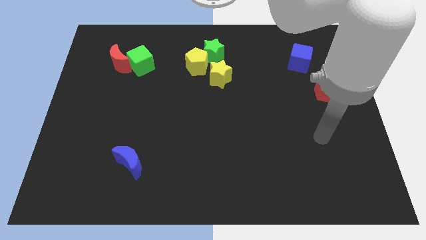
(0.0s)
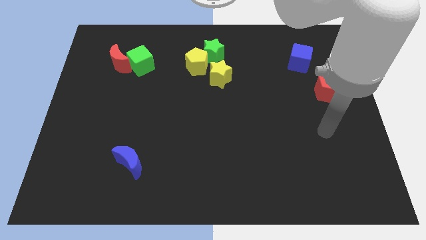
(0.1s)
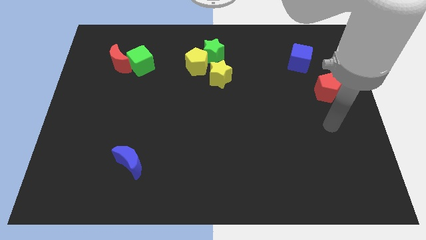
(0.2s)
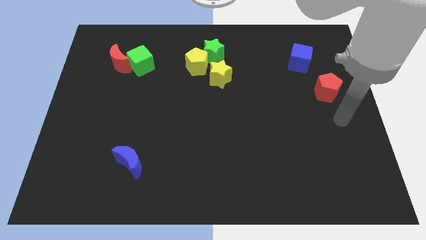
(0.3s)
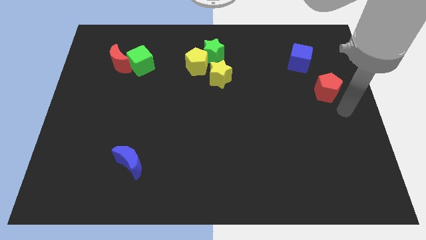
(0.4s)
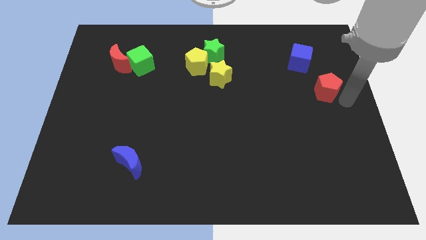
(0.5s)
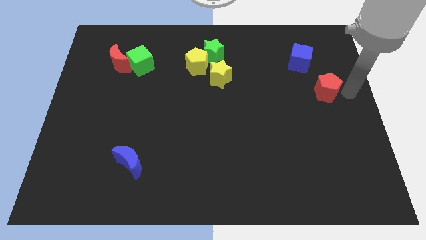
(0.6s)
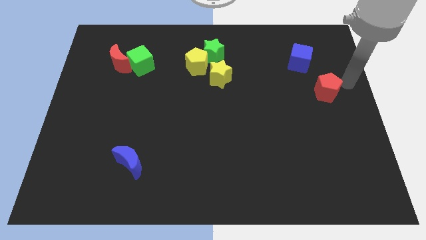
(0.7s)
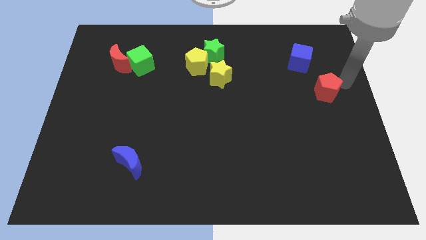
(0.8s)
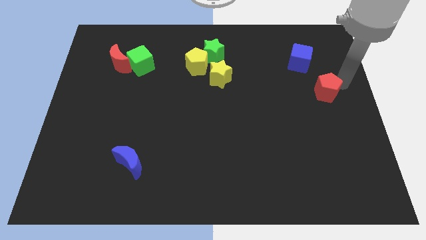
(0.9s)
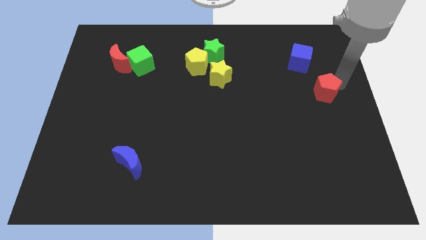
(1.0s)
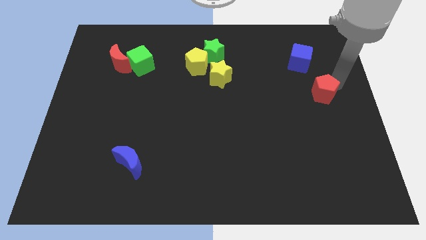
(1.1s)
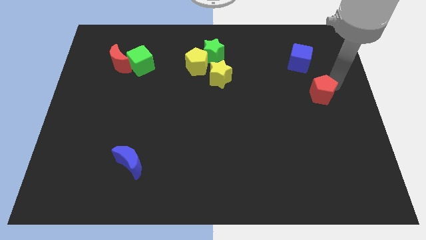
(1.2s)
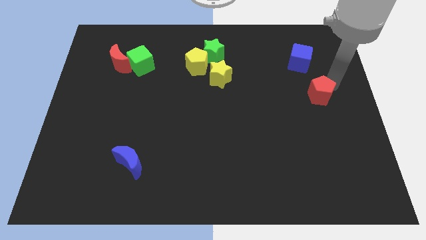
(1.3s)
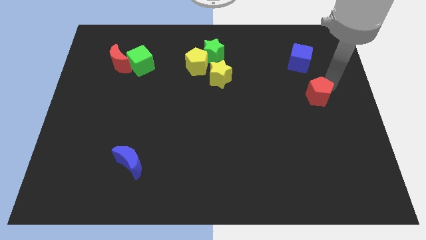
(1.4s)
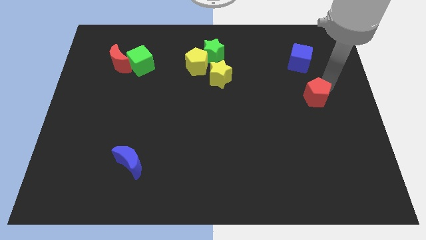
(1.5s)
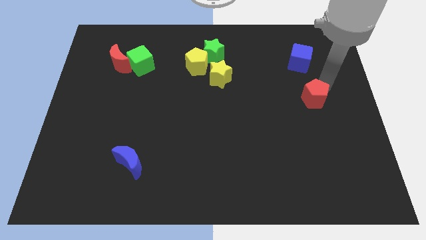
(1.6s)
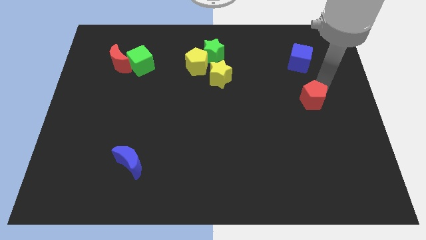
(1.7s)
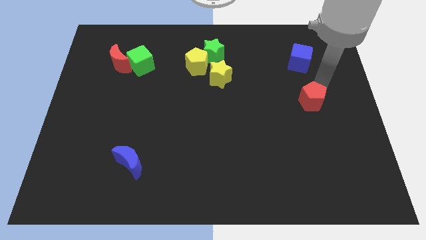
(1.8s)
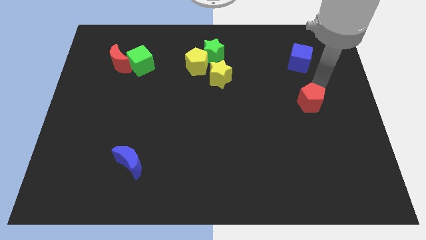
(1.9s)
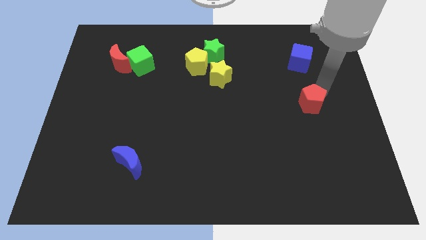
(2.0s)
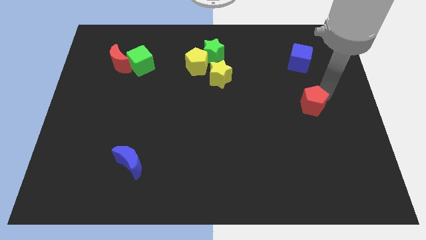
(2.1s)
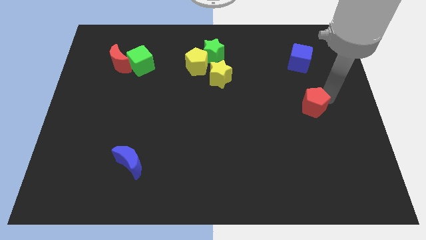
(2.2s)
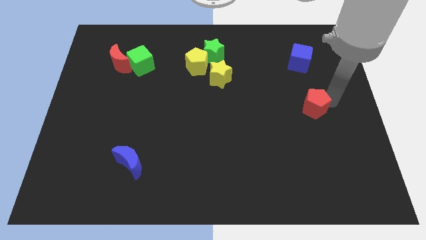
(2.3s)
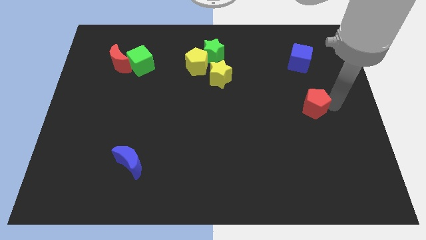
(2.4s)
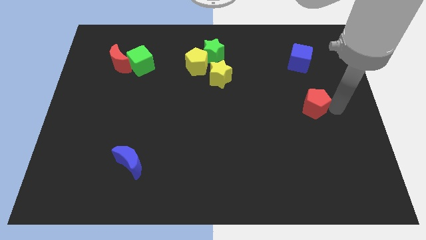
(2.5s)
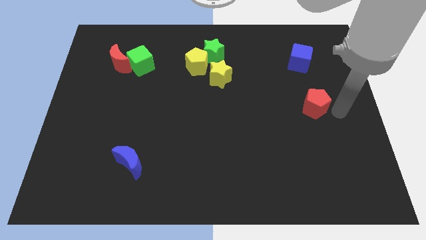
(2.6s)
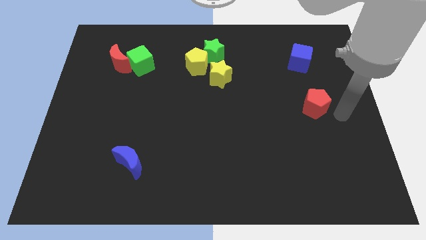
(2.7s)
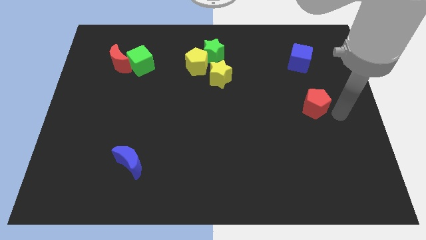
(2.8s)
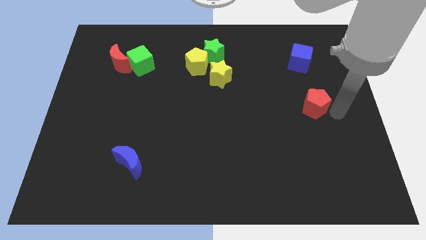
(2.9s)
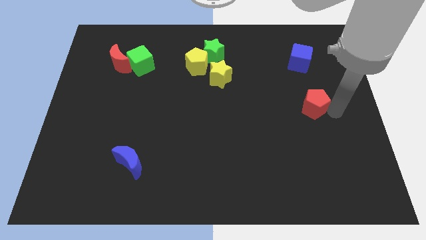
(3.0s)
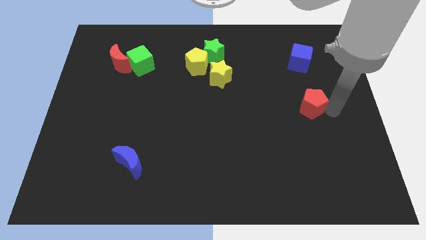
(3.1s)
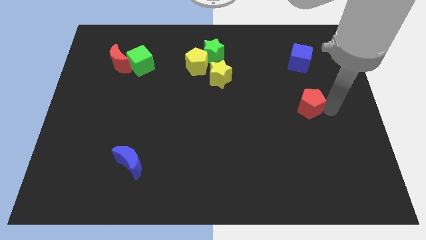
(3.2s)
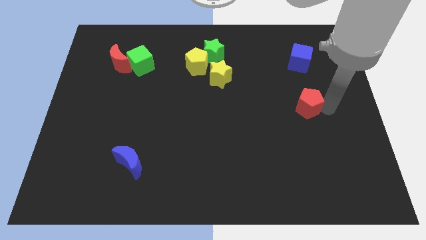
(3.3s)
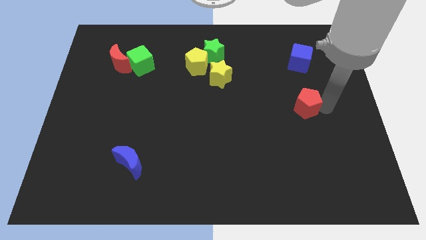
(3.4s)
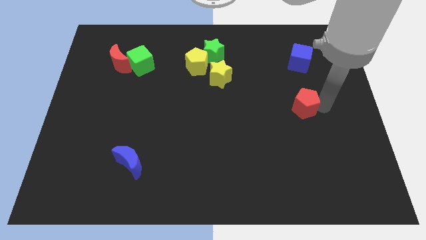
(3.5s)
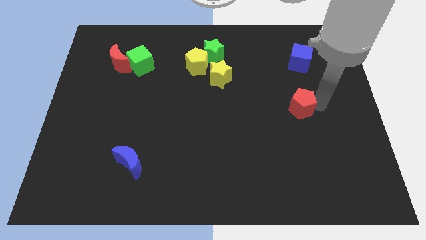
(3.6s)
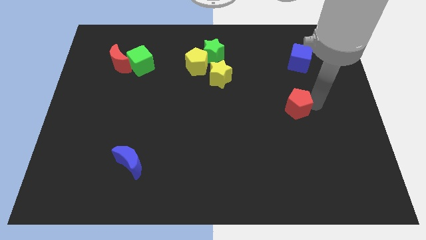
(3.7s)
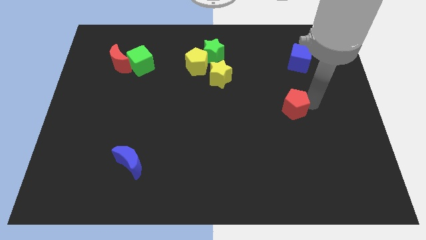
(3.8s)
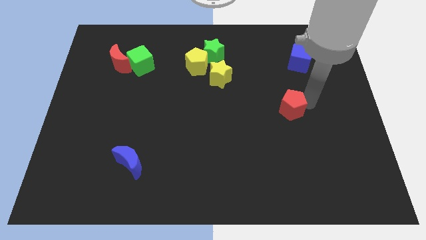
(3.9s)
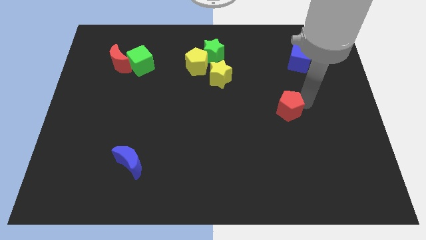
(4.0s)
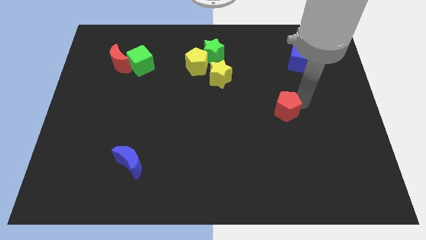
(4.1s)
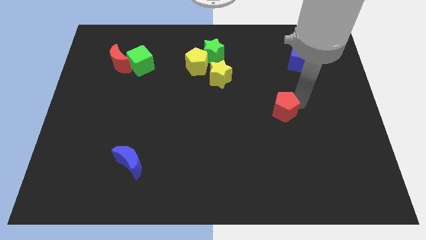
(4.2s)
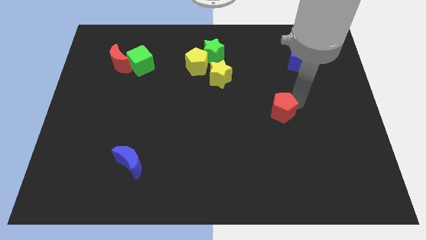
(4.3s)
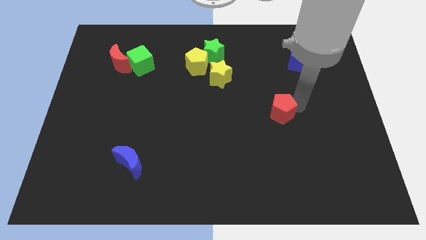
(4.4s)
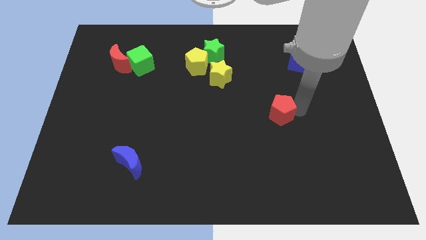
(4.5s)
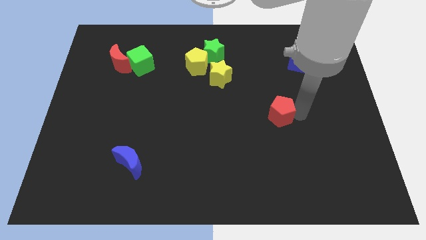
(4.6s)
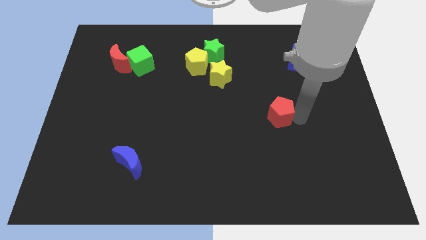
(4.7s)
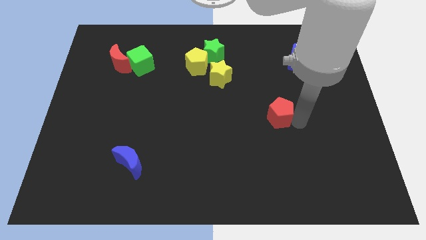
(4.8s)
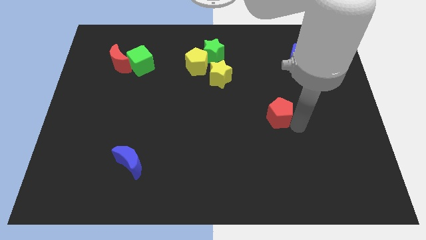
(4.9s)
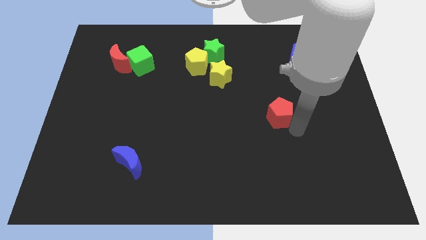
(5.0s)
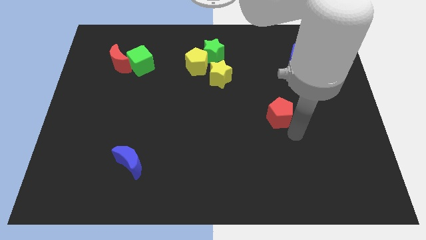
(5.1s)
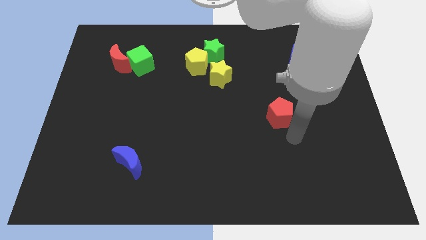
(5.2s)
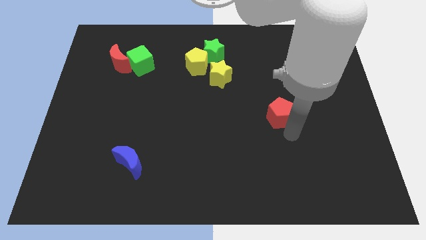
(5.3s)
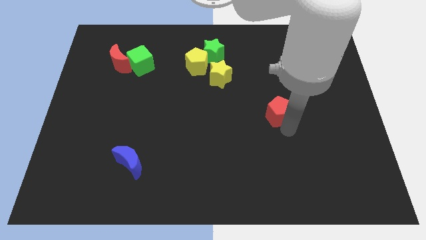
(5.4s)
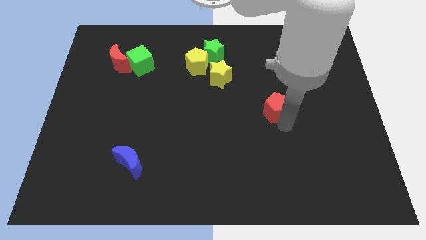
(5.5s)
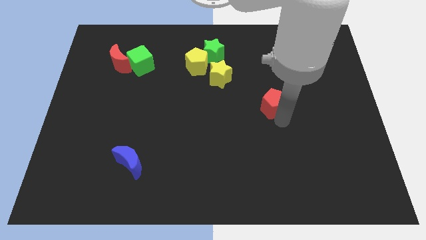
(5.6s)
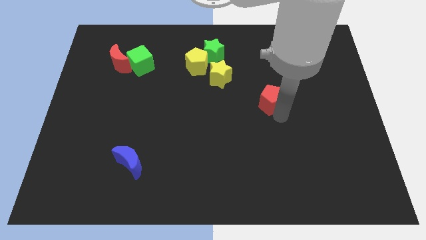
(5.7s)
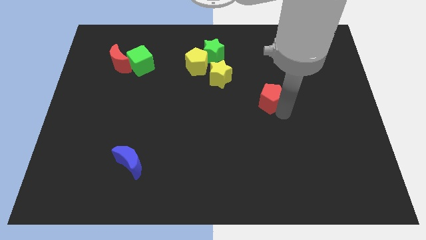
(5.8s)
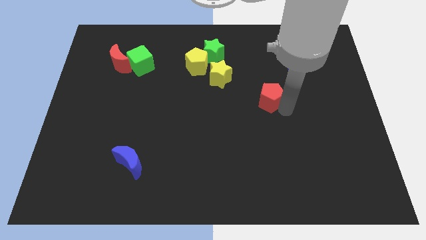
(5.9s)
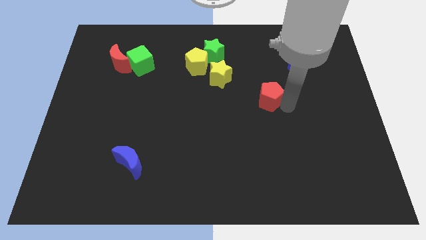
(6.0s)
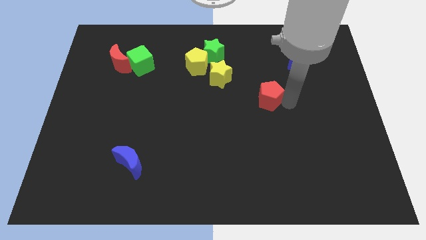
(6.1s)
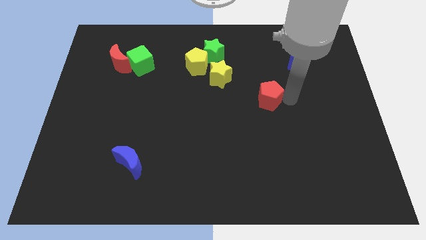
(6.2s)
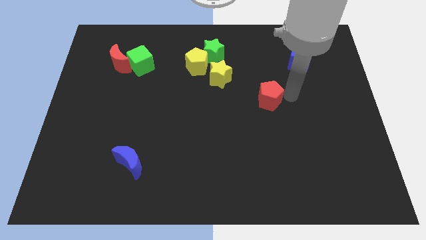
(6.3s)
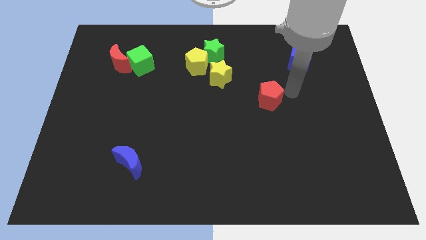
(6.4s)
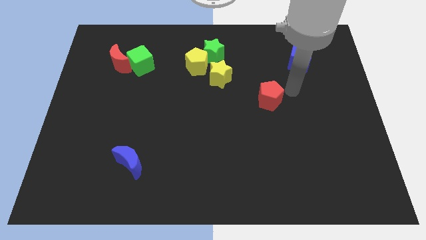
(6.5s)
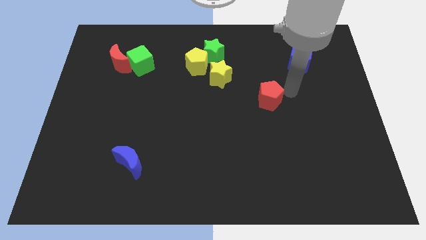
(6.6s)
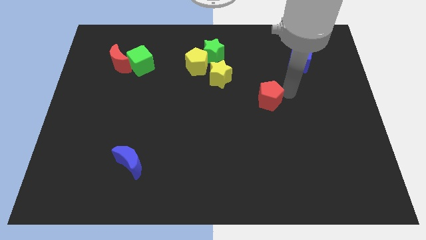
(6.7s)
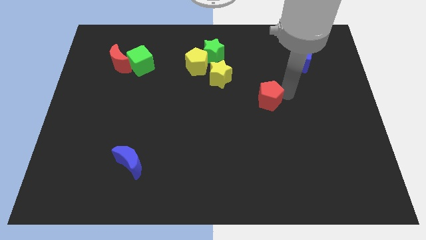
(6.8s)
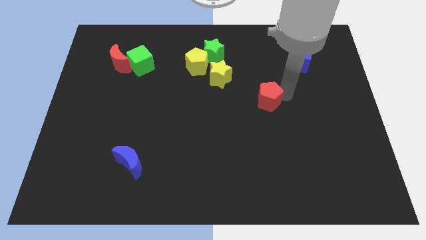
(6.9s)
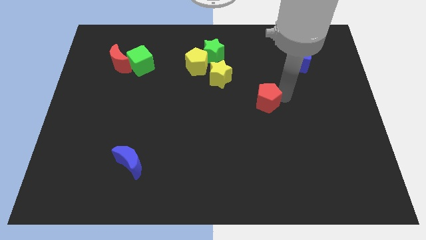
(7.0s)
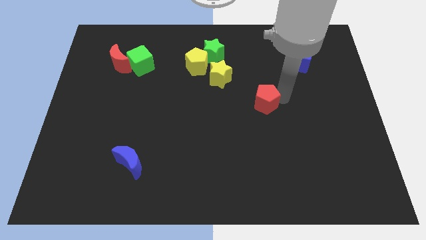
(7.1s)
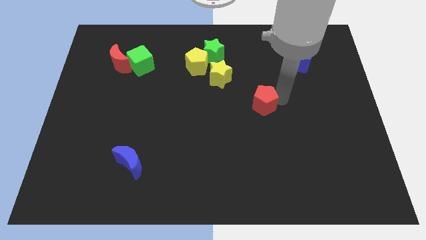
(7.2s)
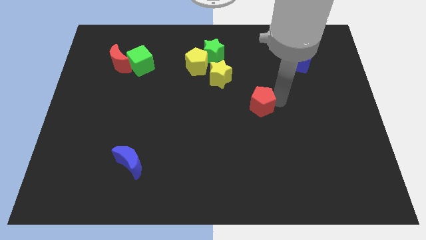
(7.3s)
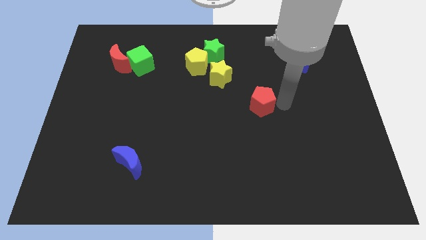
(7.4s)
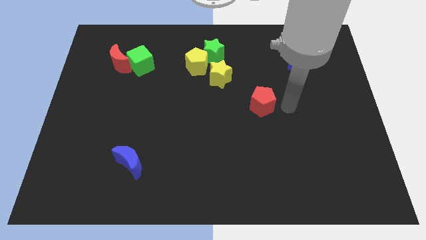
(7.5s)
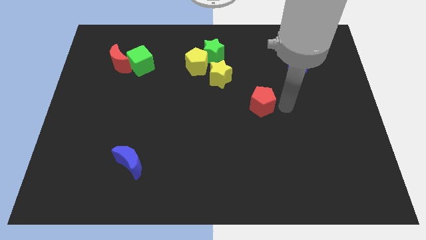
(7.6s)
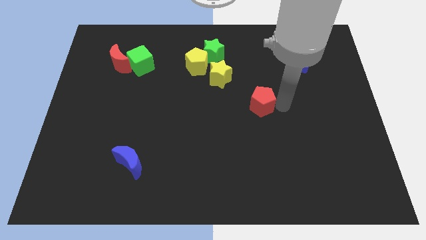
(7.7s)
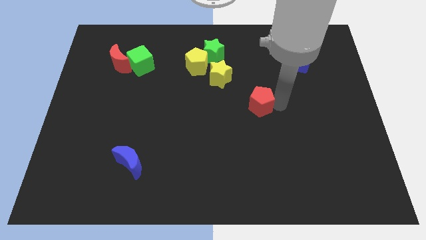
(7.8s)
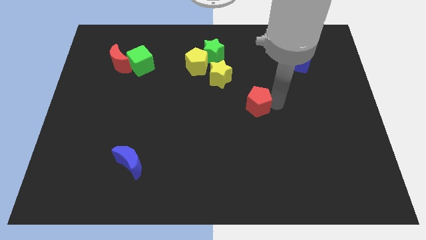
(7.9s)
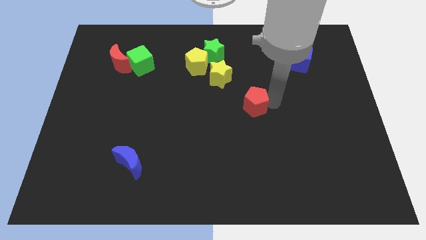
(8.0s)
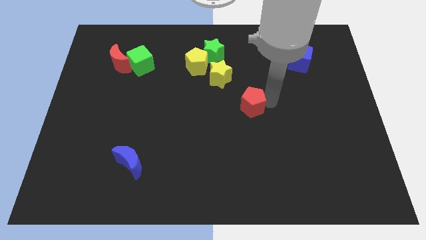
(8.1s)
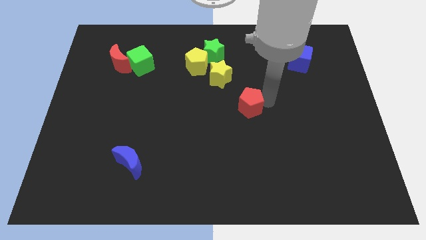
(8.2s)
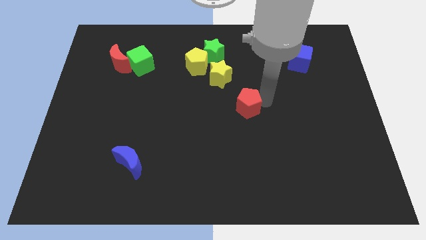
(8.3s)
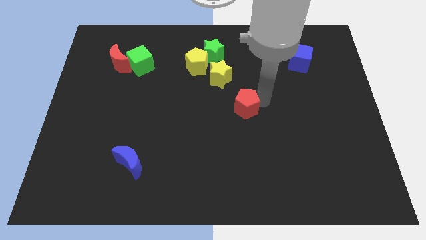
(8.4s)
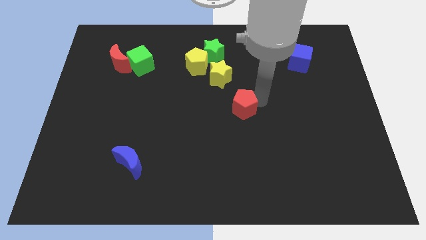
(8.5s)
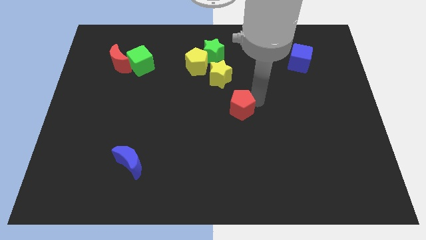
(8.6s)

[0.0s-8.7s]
push the red pentagon below the yellow star
